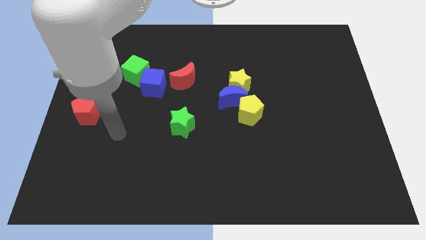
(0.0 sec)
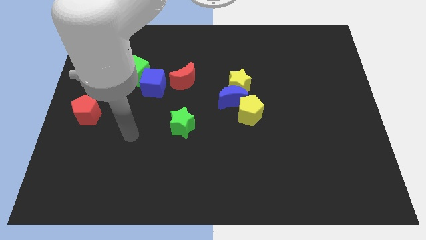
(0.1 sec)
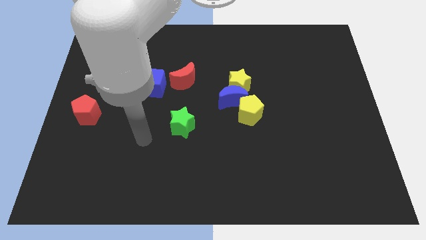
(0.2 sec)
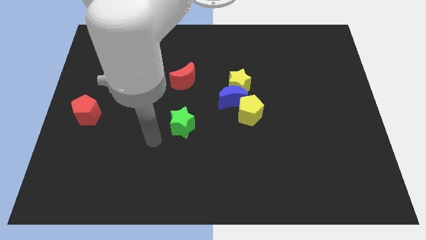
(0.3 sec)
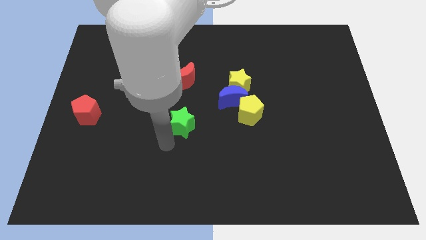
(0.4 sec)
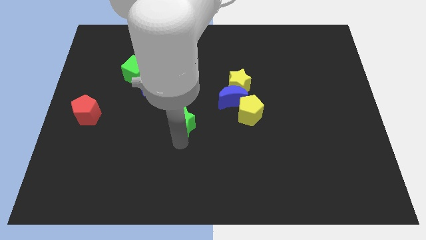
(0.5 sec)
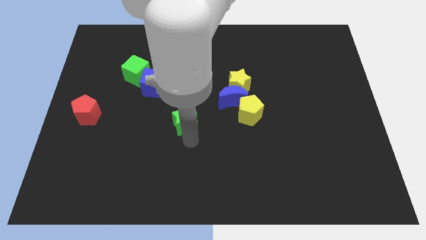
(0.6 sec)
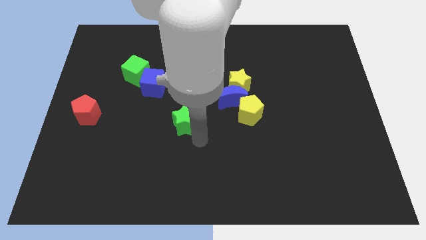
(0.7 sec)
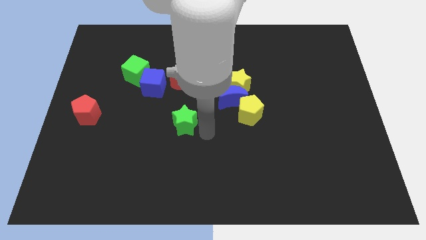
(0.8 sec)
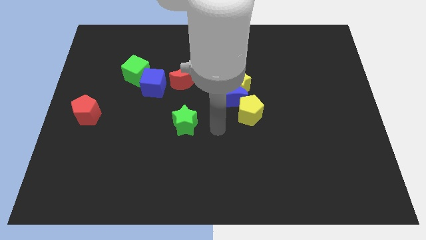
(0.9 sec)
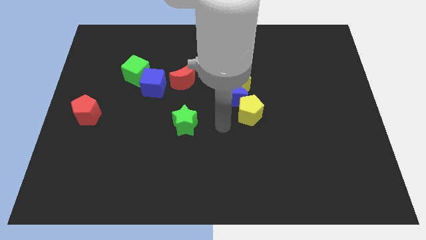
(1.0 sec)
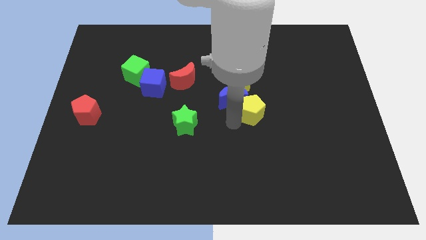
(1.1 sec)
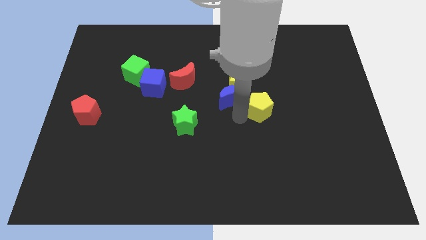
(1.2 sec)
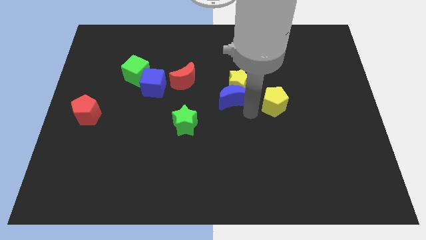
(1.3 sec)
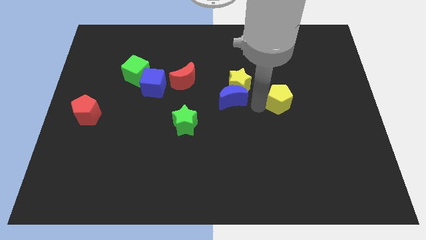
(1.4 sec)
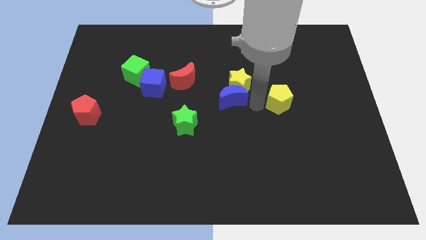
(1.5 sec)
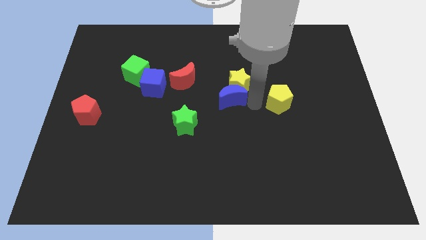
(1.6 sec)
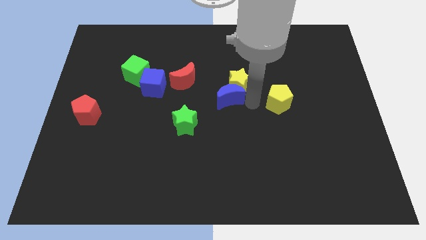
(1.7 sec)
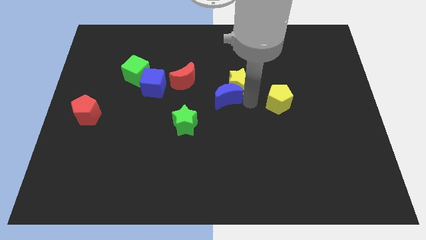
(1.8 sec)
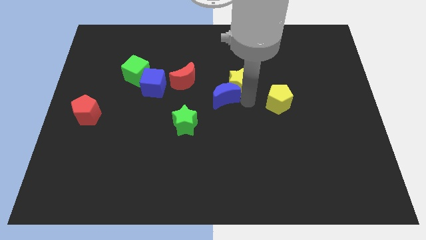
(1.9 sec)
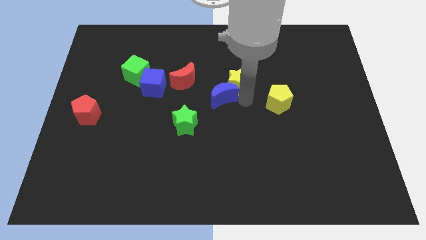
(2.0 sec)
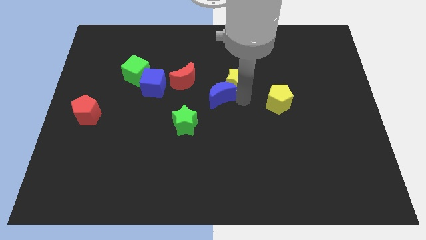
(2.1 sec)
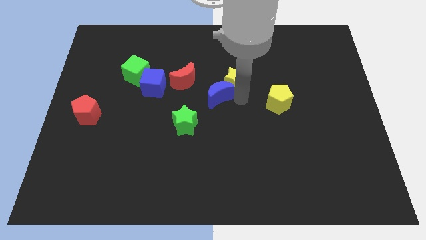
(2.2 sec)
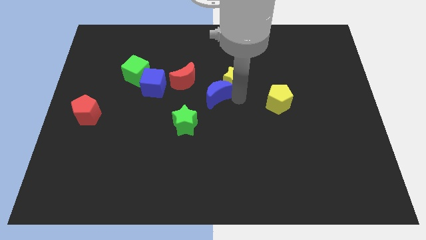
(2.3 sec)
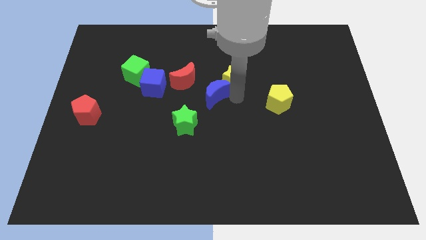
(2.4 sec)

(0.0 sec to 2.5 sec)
move the blue moon away from the yellow star and yellow pentagon

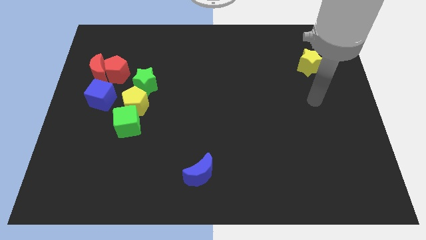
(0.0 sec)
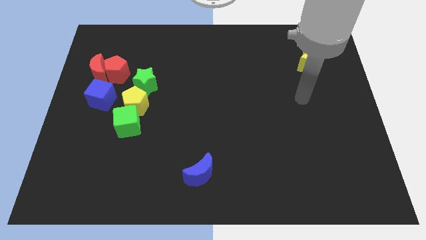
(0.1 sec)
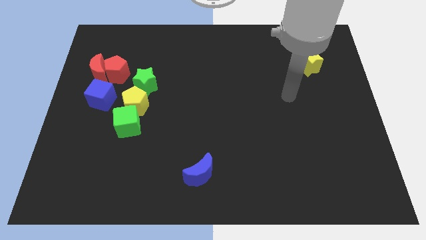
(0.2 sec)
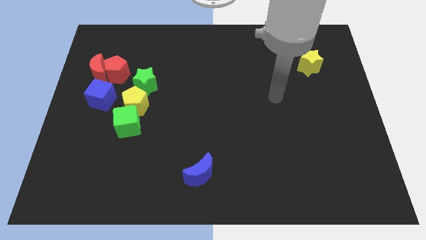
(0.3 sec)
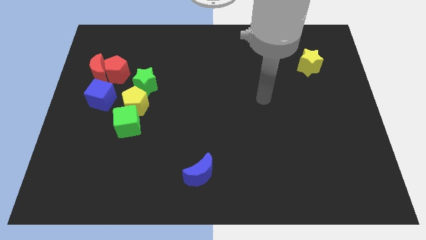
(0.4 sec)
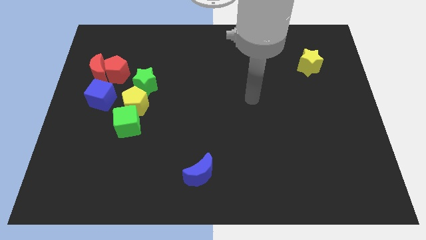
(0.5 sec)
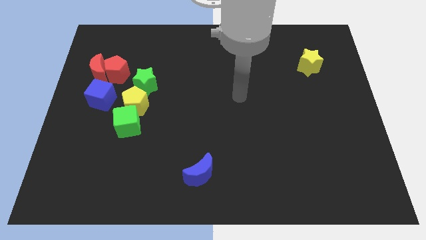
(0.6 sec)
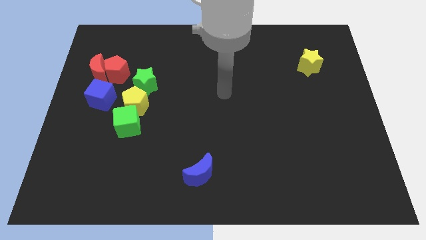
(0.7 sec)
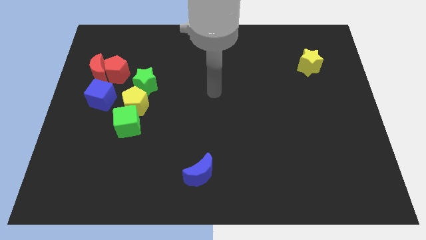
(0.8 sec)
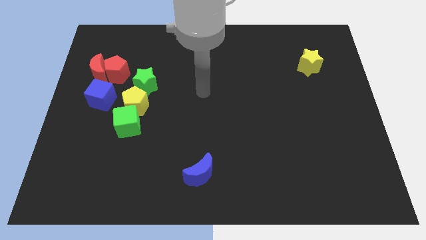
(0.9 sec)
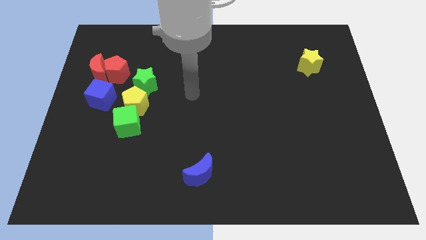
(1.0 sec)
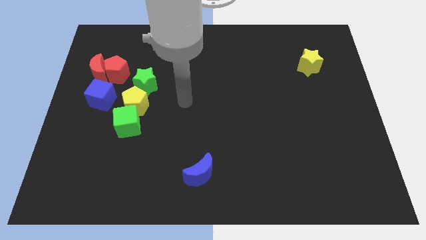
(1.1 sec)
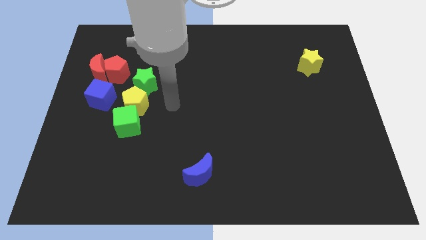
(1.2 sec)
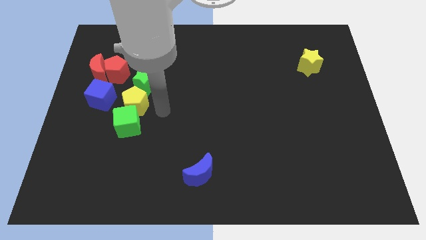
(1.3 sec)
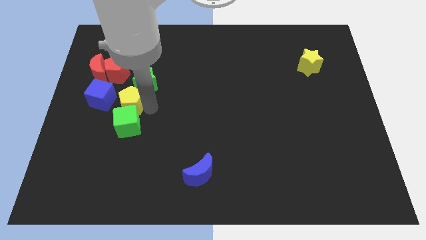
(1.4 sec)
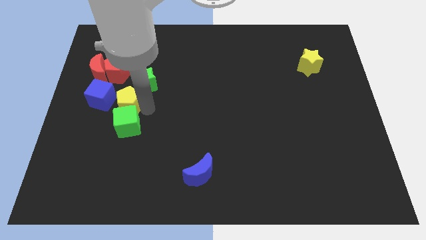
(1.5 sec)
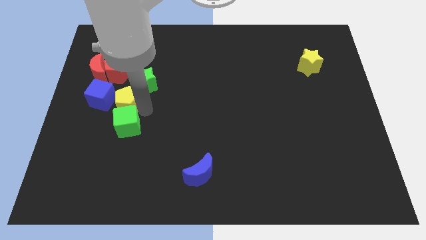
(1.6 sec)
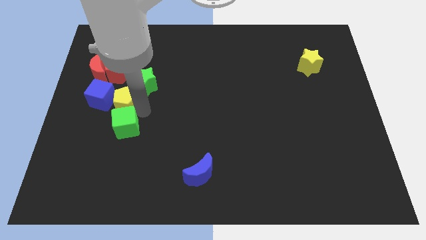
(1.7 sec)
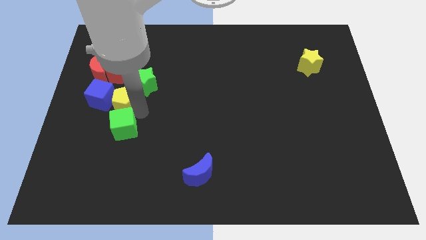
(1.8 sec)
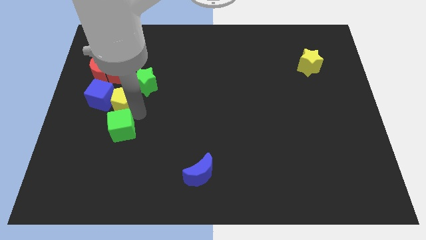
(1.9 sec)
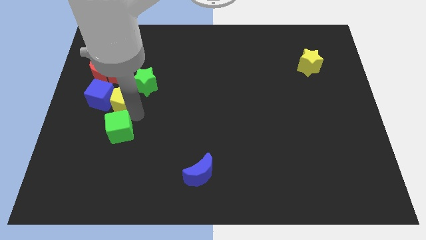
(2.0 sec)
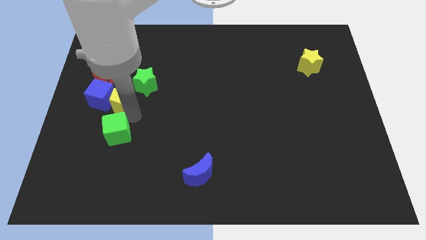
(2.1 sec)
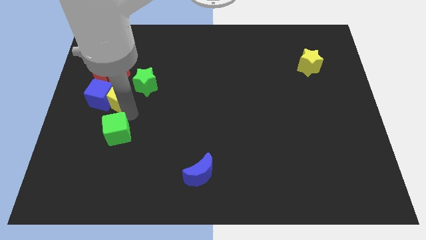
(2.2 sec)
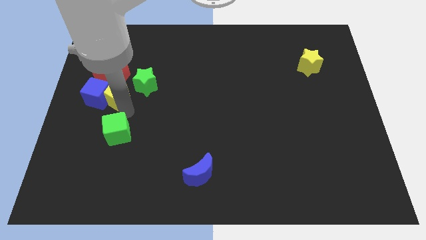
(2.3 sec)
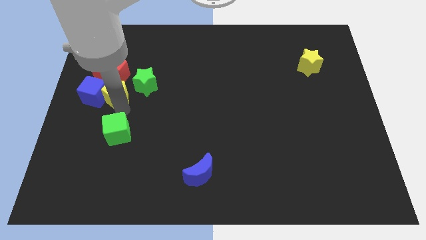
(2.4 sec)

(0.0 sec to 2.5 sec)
pull the green cube apart from the yellow pentagon

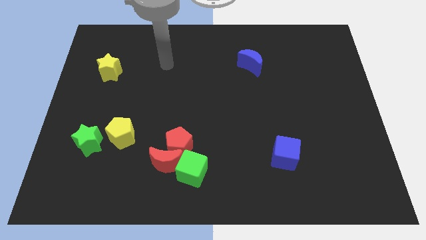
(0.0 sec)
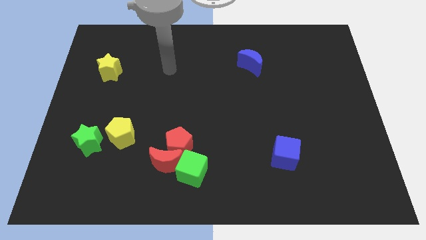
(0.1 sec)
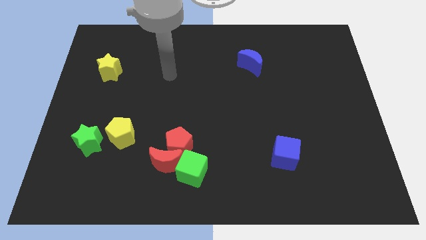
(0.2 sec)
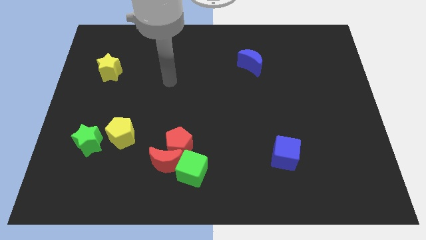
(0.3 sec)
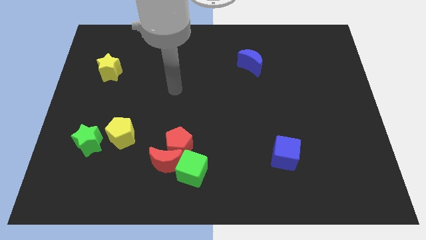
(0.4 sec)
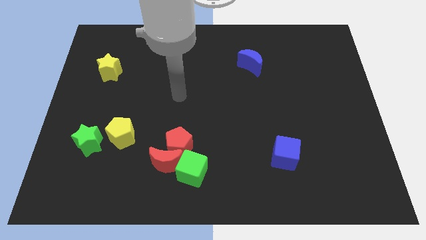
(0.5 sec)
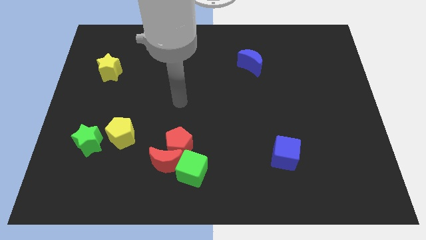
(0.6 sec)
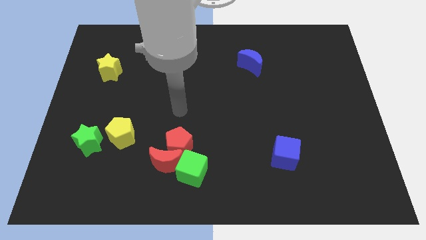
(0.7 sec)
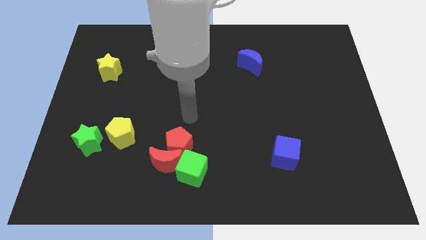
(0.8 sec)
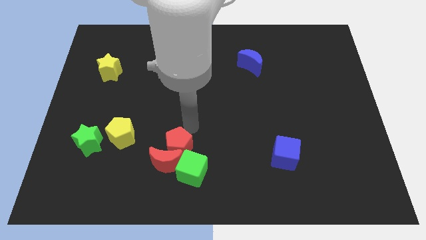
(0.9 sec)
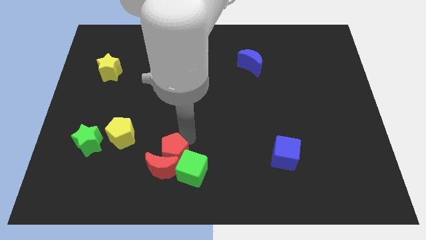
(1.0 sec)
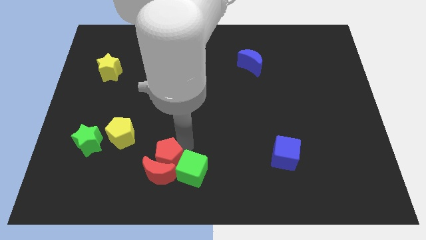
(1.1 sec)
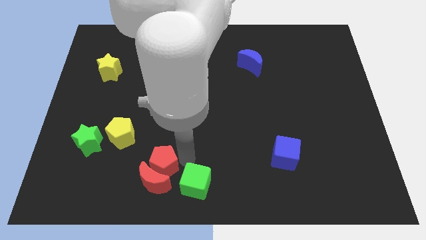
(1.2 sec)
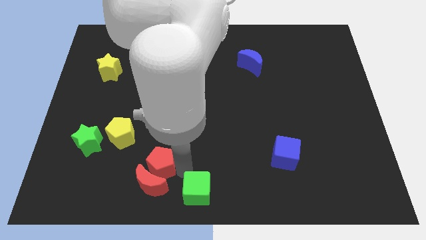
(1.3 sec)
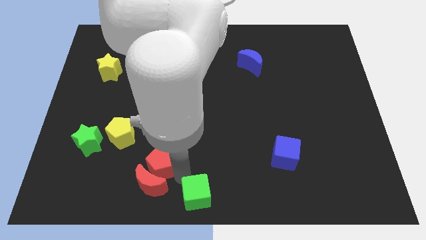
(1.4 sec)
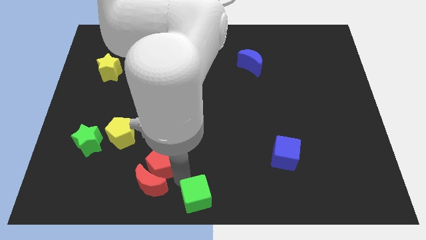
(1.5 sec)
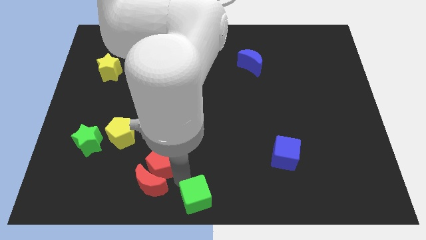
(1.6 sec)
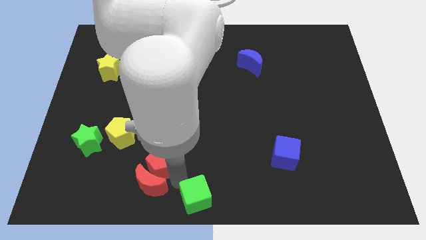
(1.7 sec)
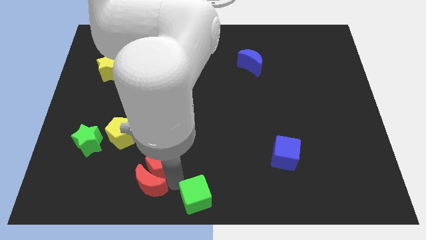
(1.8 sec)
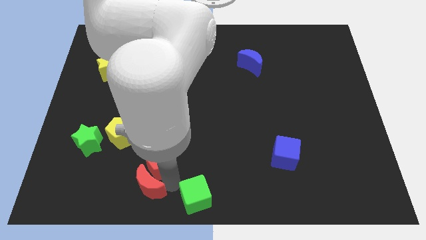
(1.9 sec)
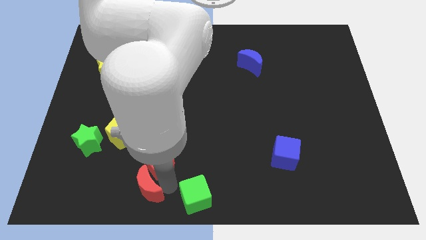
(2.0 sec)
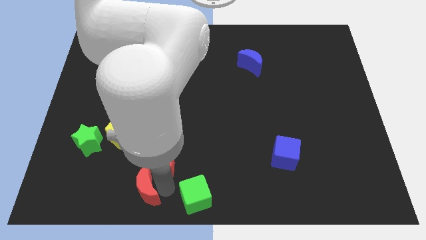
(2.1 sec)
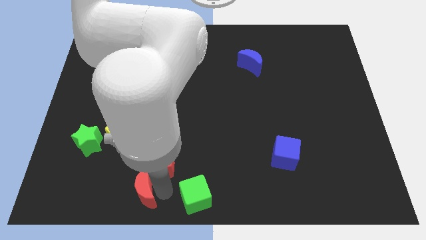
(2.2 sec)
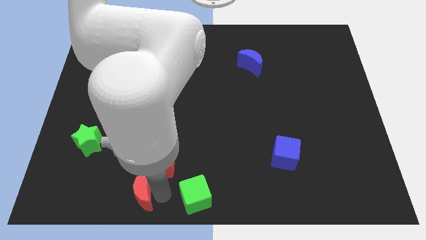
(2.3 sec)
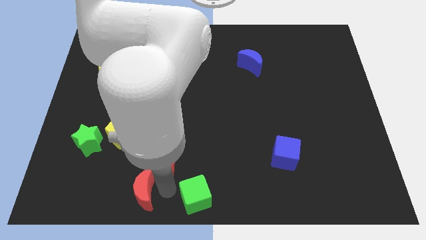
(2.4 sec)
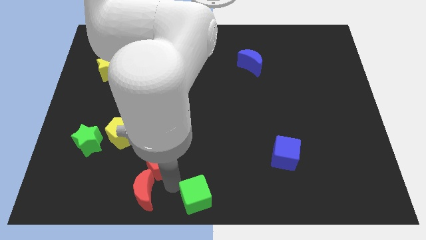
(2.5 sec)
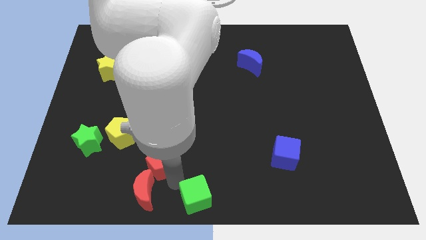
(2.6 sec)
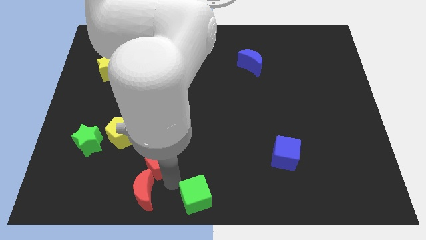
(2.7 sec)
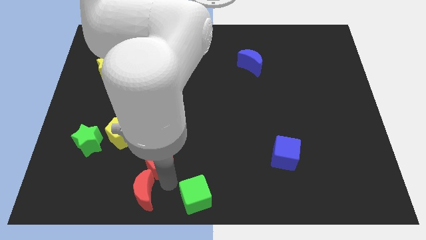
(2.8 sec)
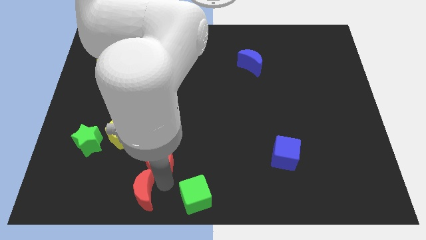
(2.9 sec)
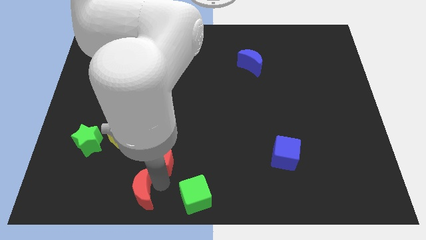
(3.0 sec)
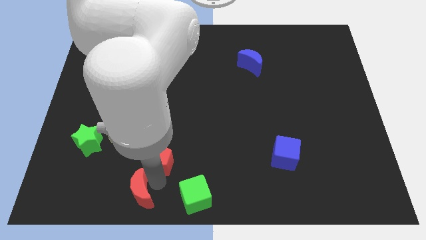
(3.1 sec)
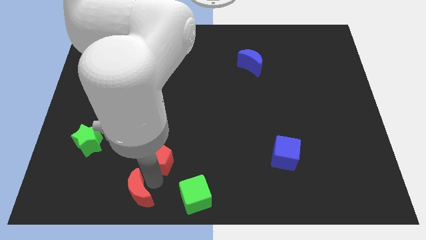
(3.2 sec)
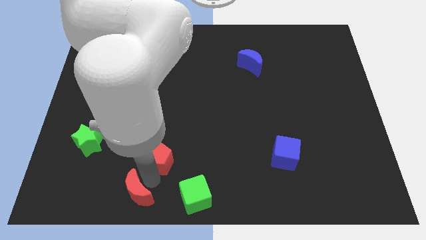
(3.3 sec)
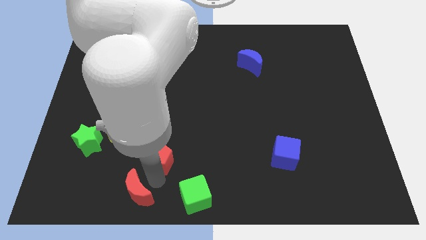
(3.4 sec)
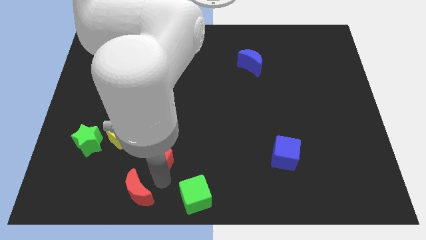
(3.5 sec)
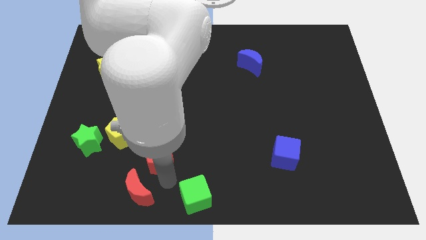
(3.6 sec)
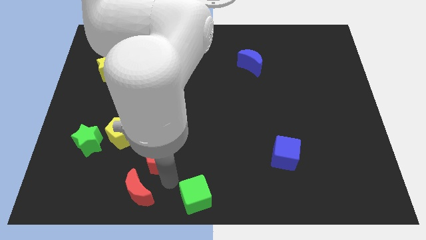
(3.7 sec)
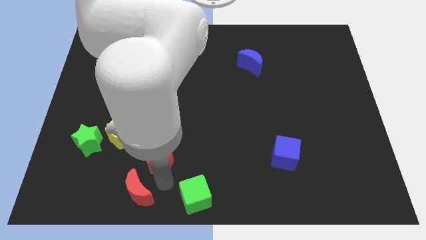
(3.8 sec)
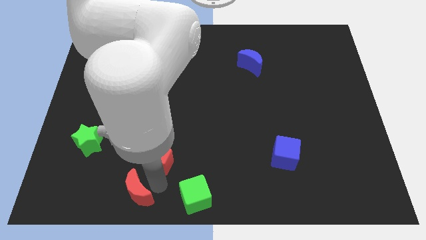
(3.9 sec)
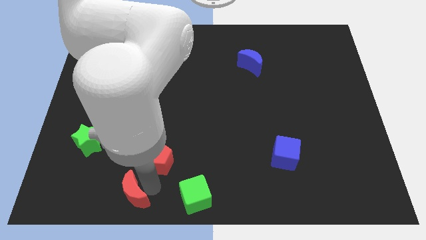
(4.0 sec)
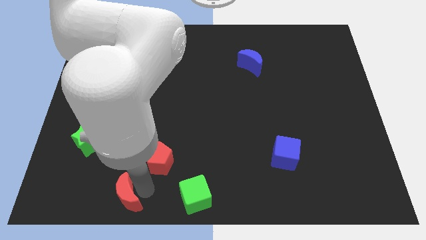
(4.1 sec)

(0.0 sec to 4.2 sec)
move the red moon away from the red pentagon and green cube

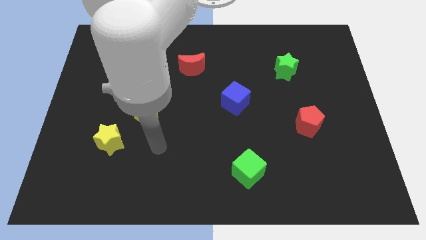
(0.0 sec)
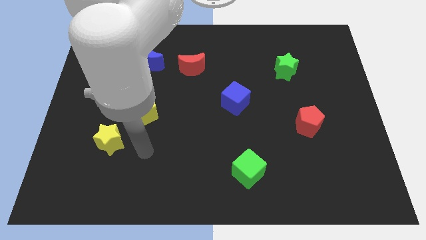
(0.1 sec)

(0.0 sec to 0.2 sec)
pull the yellow star apart from the yellow pentagon
